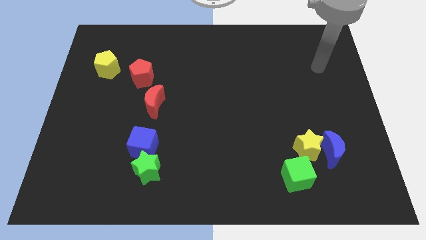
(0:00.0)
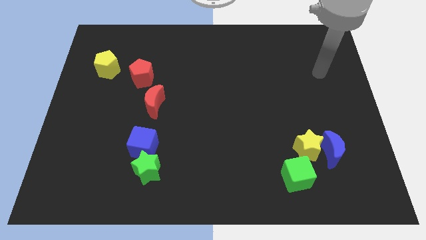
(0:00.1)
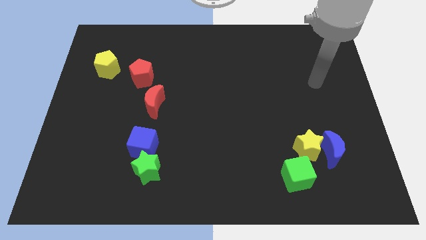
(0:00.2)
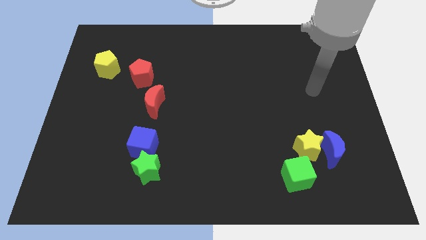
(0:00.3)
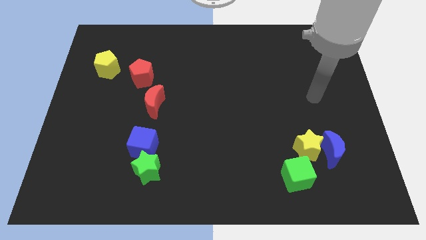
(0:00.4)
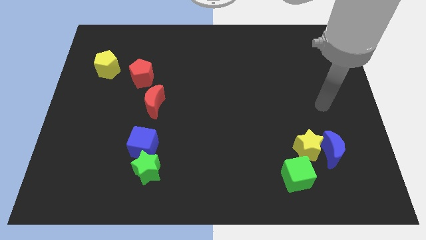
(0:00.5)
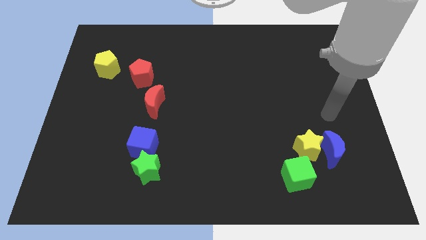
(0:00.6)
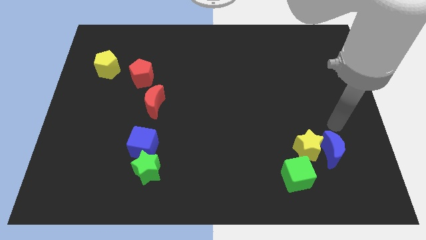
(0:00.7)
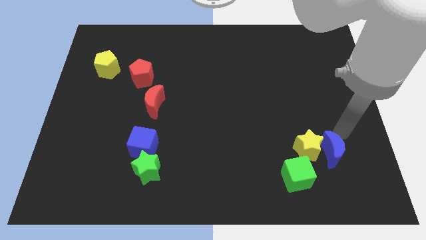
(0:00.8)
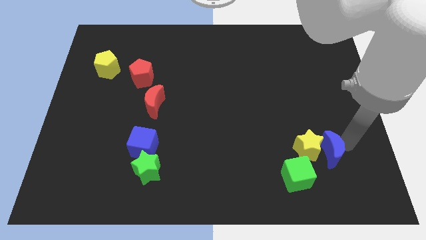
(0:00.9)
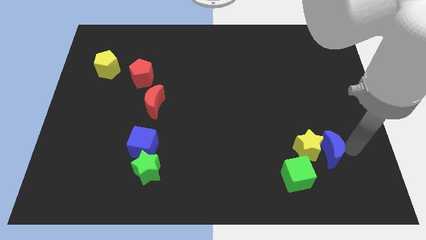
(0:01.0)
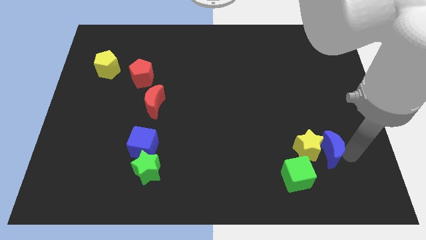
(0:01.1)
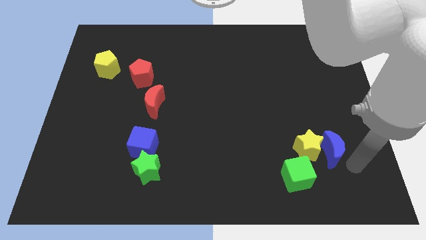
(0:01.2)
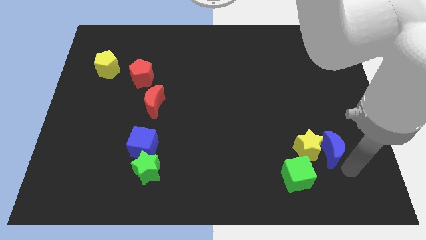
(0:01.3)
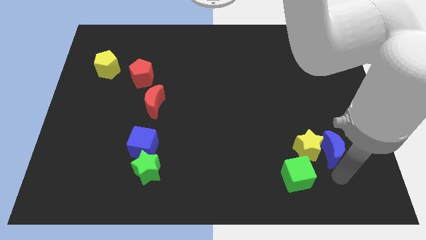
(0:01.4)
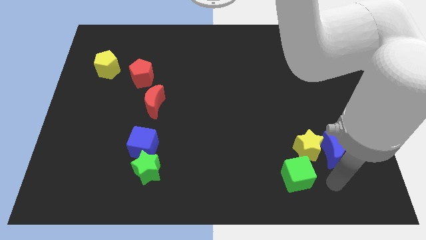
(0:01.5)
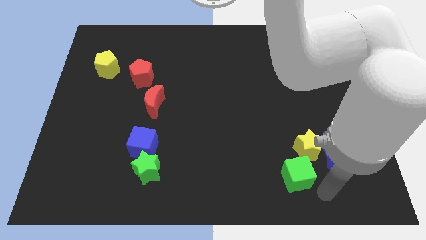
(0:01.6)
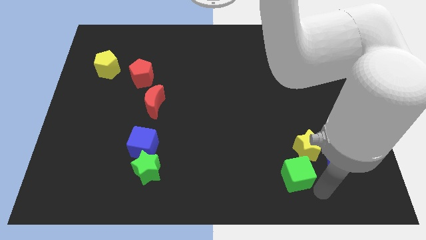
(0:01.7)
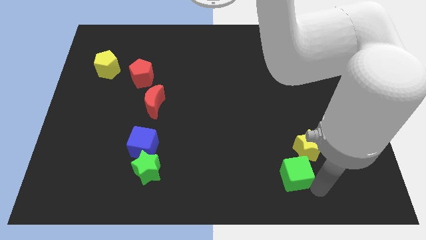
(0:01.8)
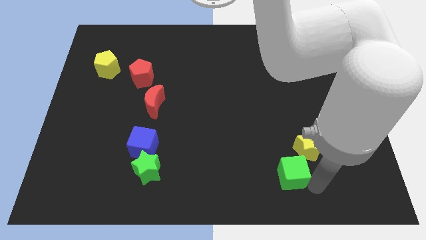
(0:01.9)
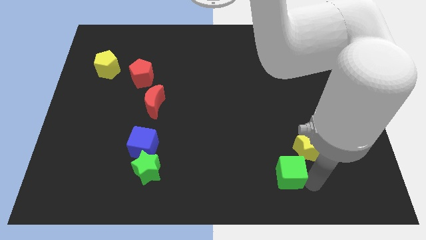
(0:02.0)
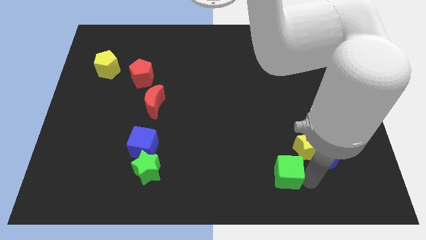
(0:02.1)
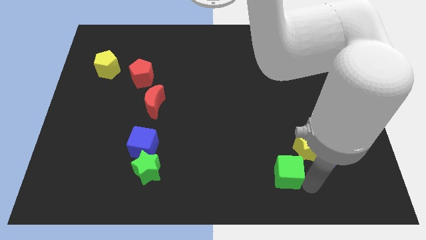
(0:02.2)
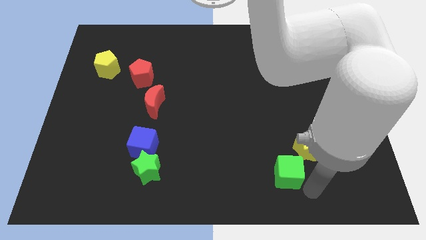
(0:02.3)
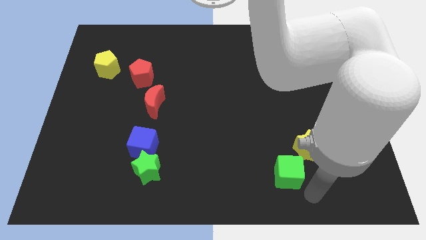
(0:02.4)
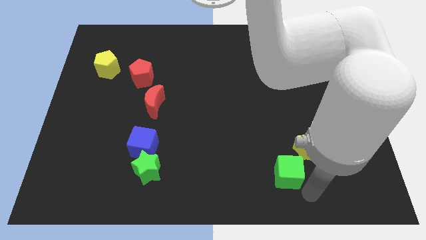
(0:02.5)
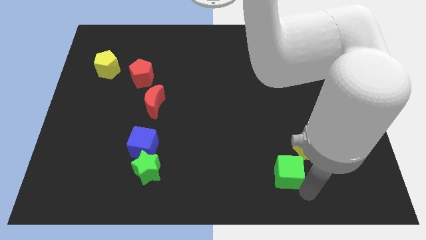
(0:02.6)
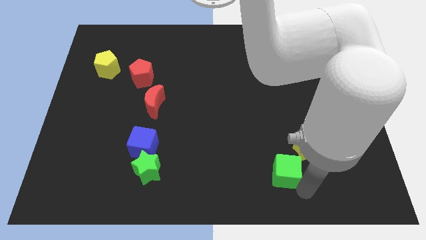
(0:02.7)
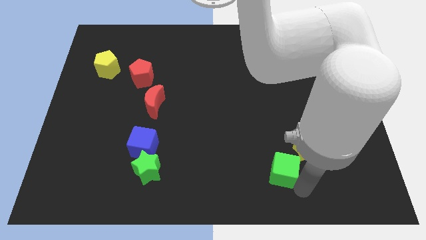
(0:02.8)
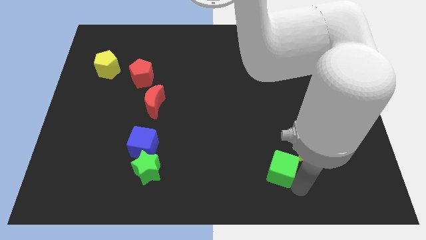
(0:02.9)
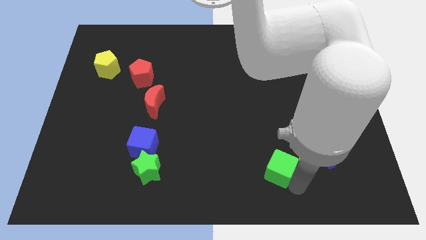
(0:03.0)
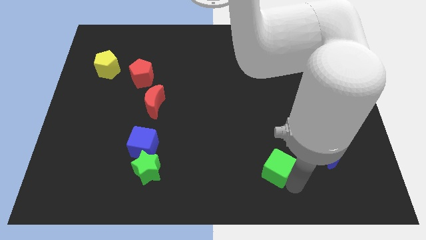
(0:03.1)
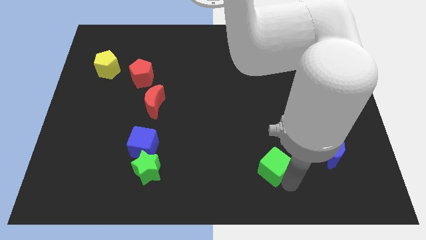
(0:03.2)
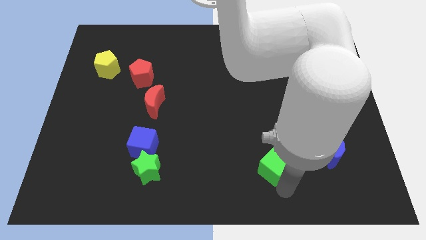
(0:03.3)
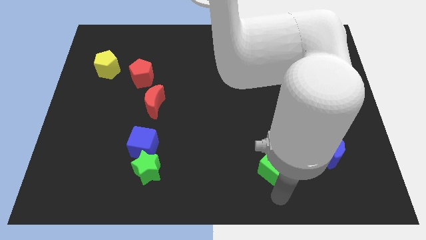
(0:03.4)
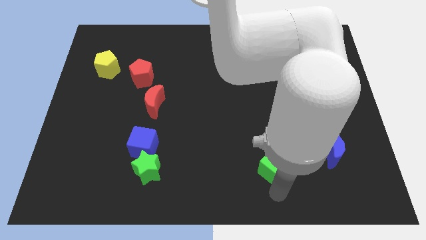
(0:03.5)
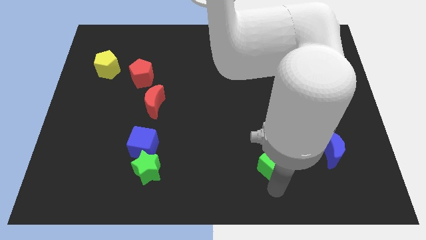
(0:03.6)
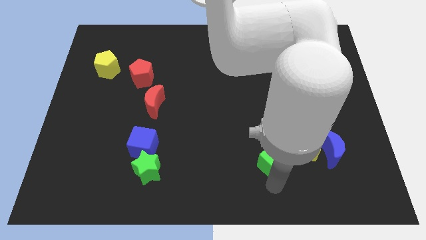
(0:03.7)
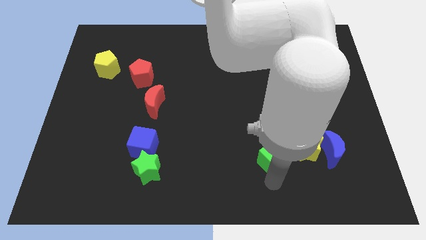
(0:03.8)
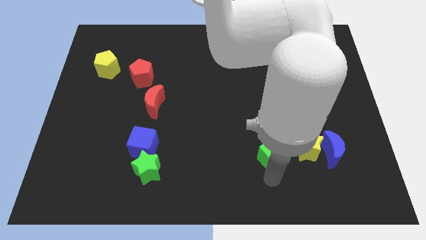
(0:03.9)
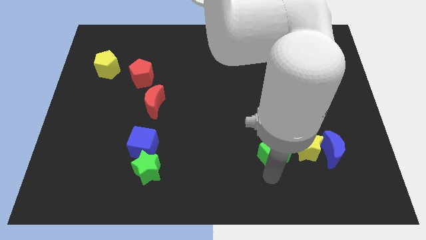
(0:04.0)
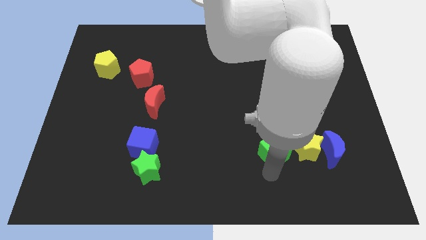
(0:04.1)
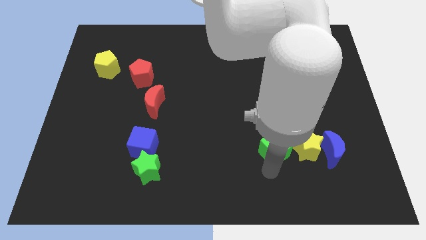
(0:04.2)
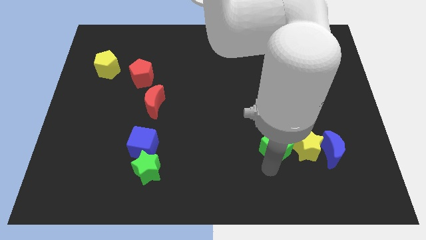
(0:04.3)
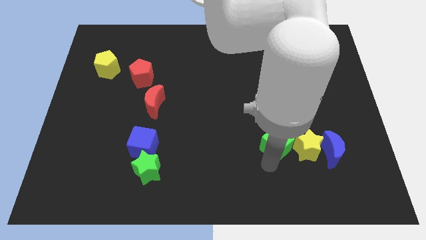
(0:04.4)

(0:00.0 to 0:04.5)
slightly slide the green cube upwards

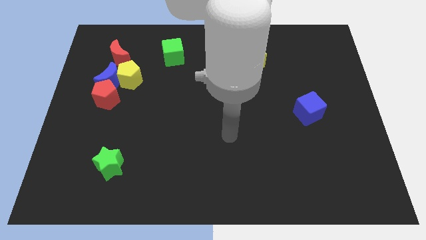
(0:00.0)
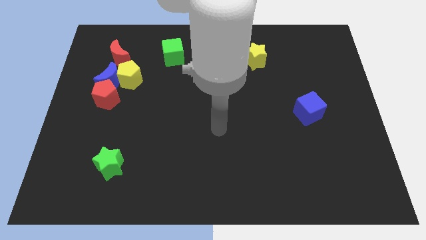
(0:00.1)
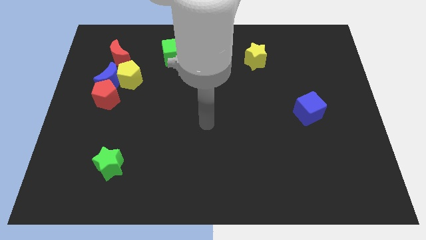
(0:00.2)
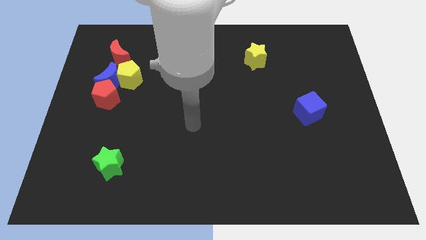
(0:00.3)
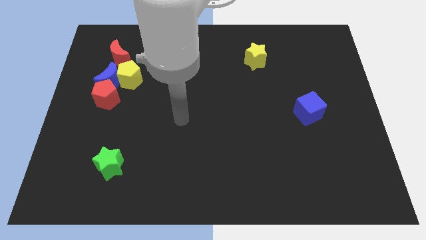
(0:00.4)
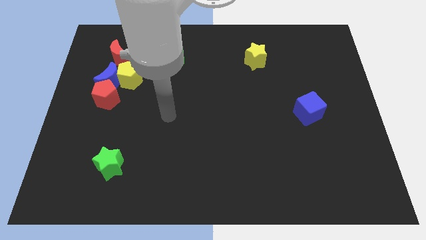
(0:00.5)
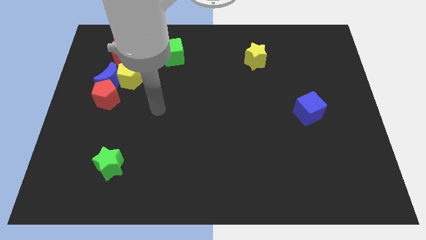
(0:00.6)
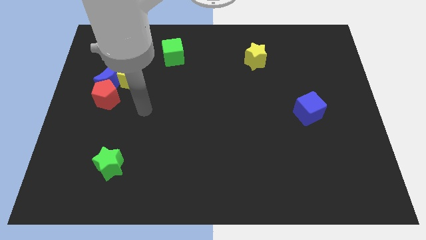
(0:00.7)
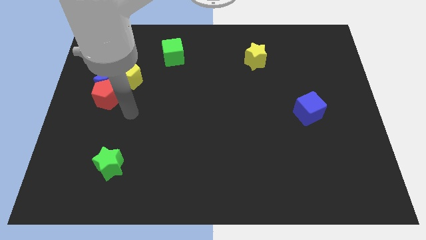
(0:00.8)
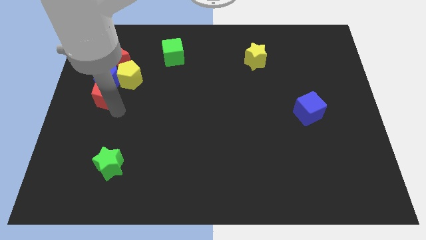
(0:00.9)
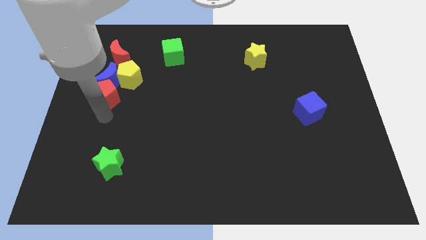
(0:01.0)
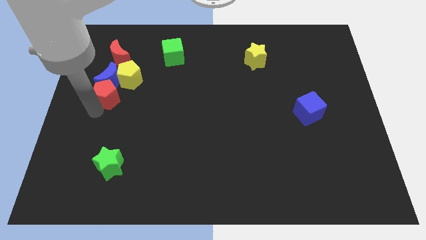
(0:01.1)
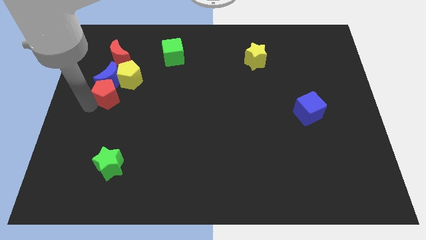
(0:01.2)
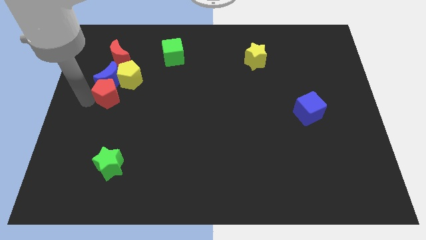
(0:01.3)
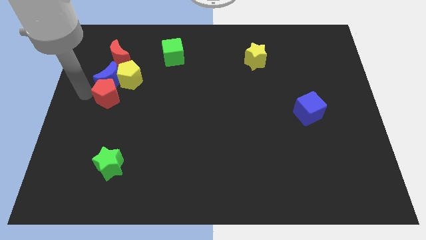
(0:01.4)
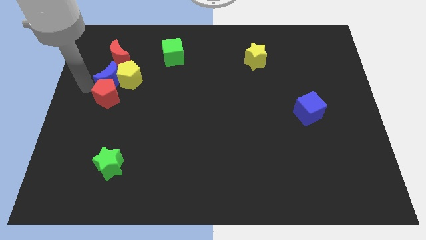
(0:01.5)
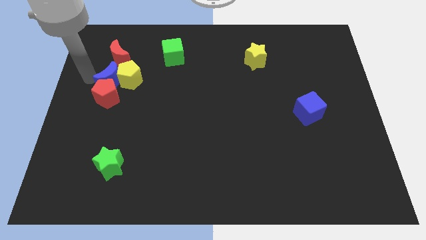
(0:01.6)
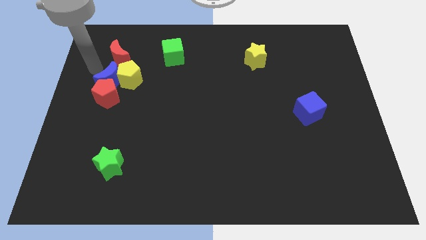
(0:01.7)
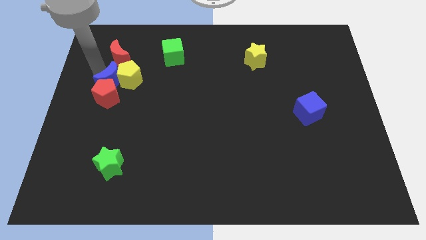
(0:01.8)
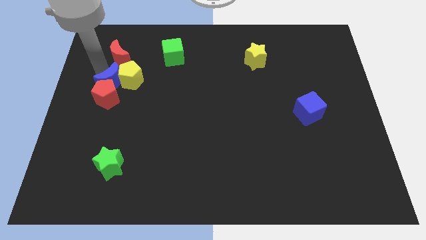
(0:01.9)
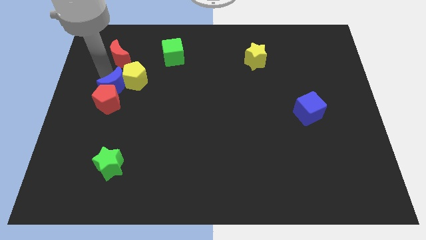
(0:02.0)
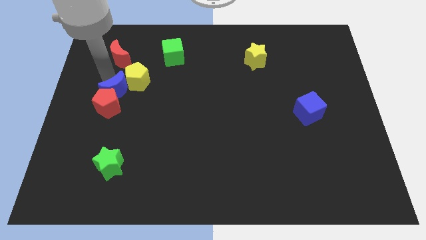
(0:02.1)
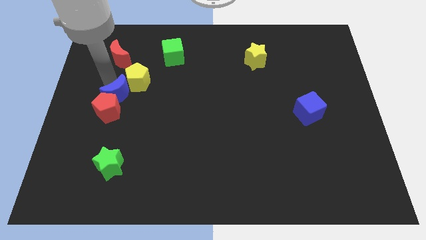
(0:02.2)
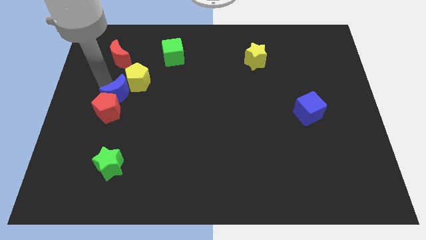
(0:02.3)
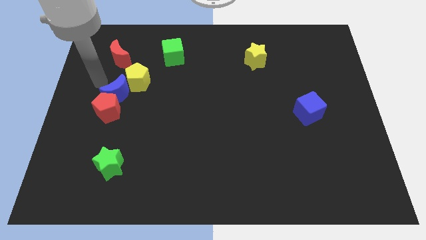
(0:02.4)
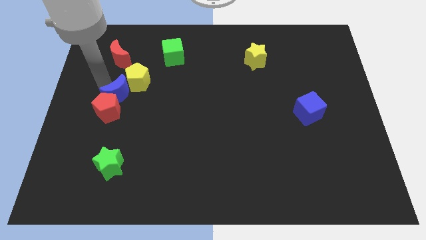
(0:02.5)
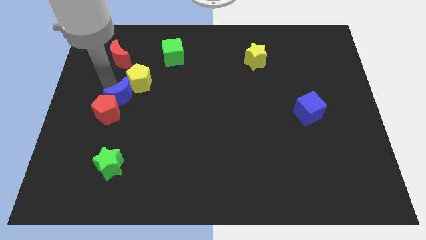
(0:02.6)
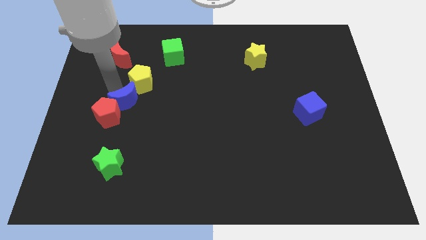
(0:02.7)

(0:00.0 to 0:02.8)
slide the blue moon diagonally down and to the right a little

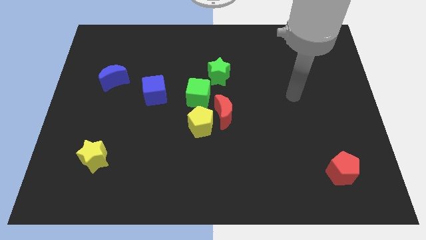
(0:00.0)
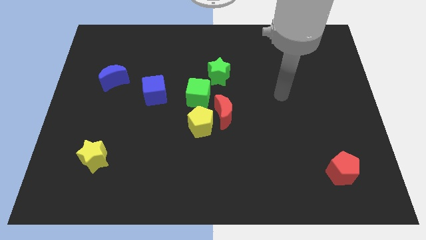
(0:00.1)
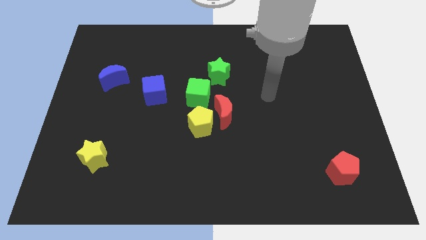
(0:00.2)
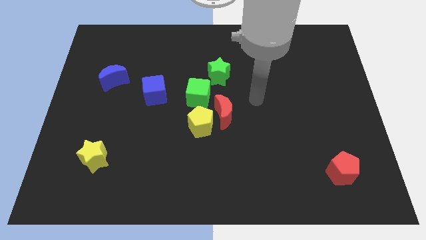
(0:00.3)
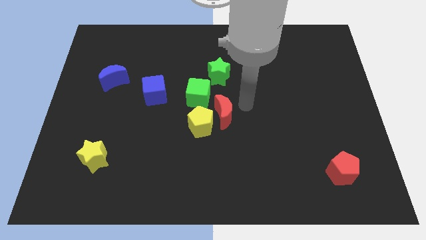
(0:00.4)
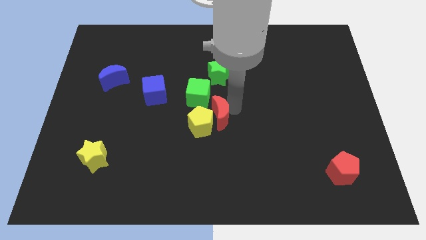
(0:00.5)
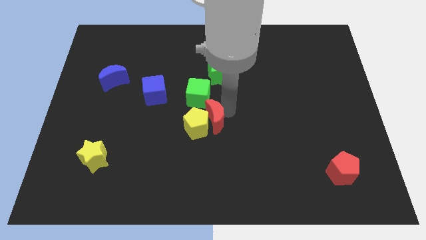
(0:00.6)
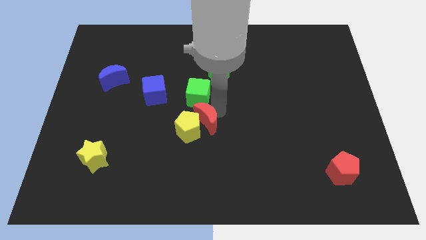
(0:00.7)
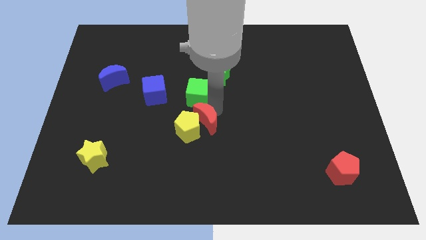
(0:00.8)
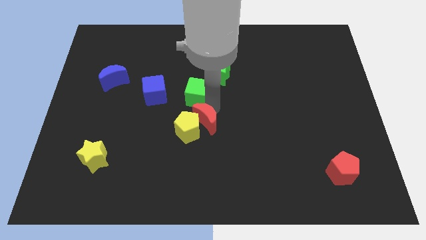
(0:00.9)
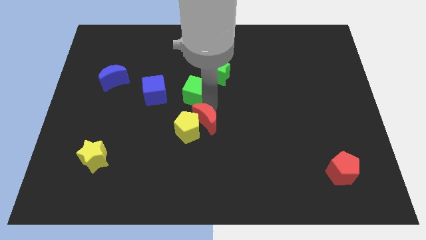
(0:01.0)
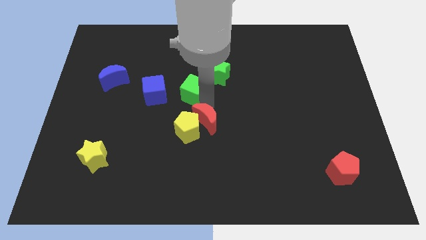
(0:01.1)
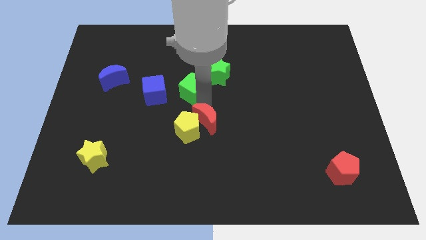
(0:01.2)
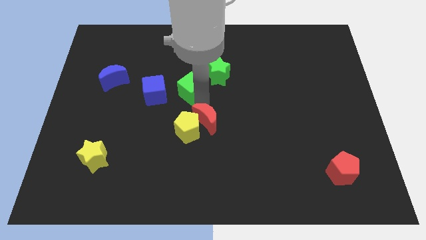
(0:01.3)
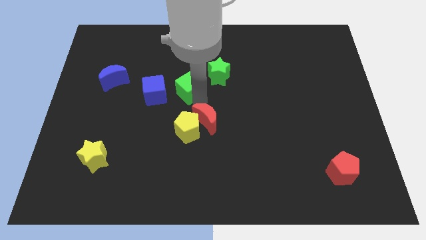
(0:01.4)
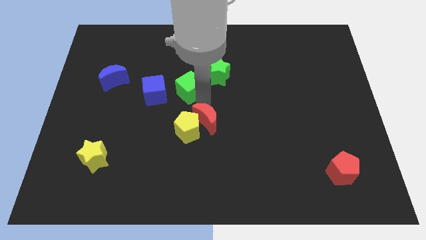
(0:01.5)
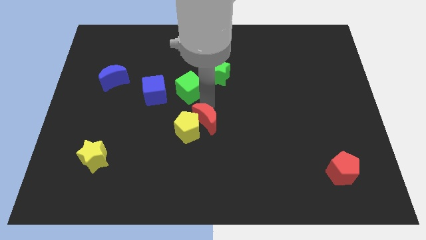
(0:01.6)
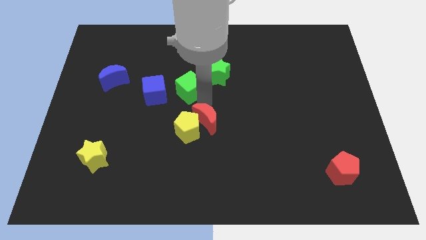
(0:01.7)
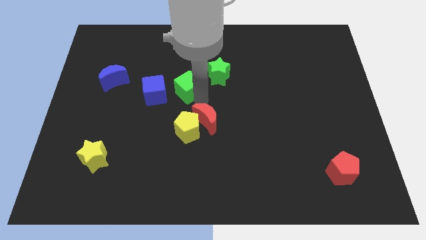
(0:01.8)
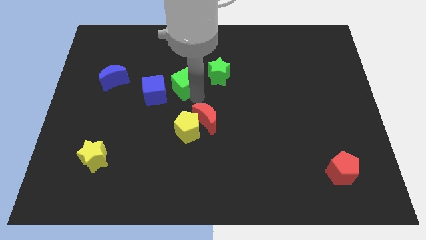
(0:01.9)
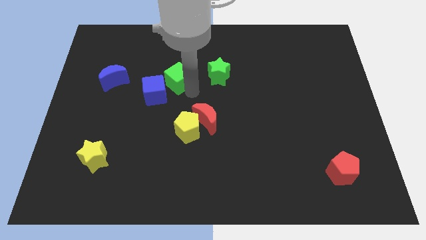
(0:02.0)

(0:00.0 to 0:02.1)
slide the green cube diagonally up and to the left slightly
